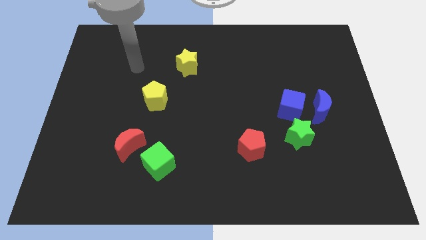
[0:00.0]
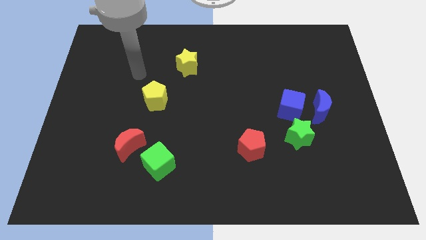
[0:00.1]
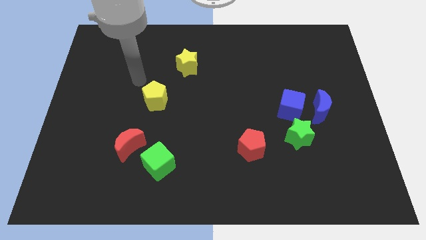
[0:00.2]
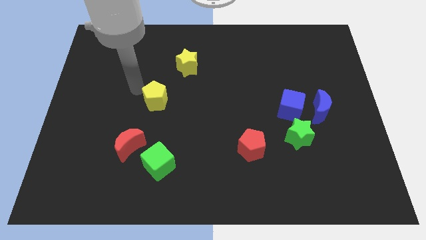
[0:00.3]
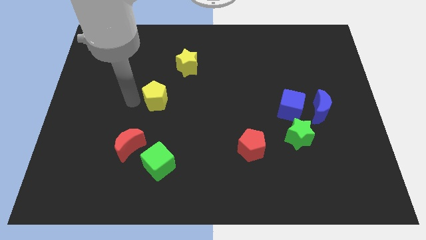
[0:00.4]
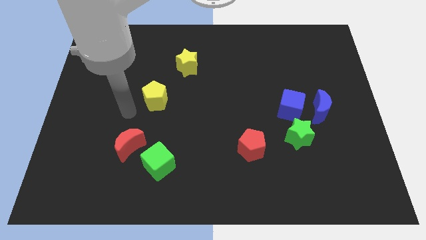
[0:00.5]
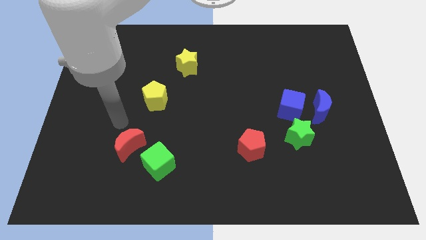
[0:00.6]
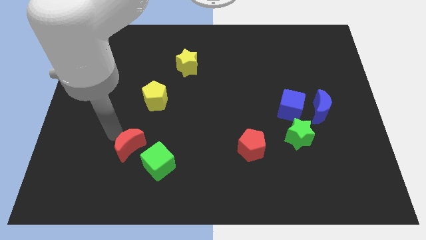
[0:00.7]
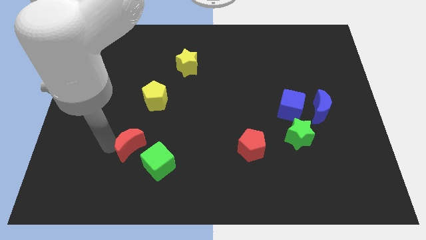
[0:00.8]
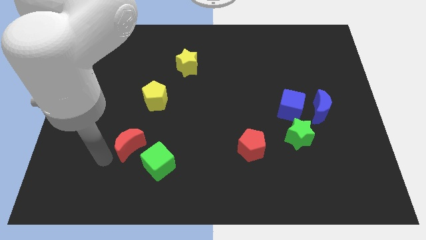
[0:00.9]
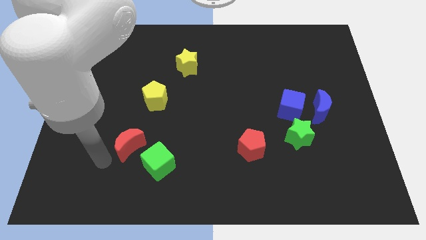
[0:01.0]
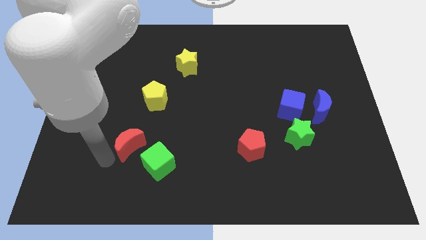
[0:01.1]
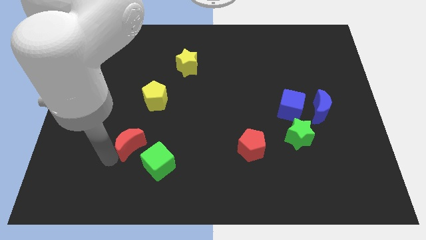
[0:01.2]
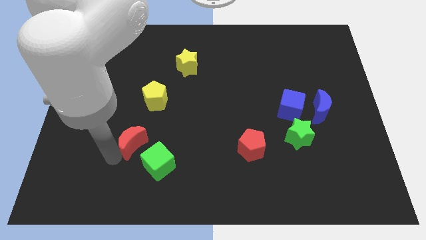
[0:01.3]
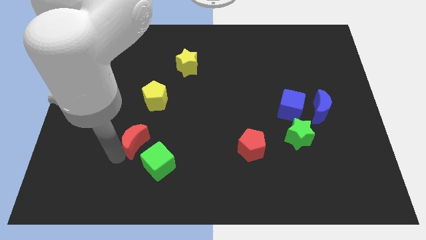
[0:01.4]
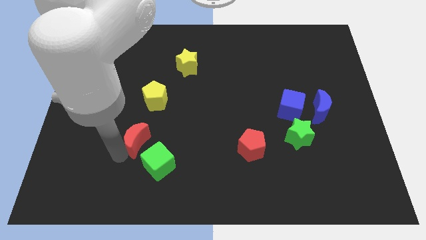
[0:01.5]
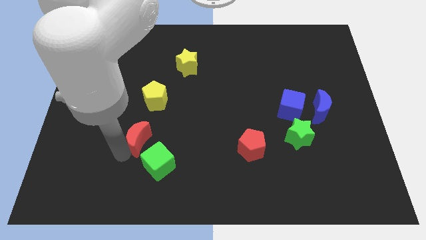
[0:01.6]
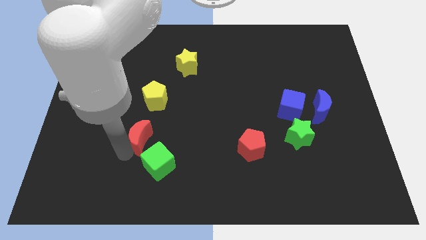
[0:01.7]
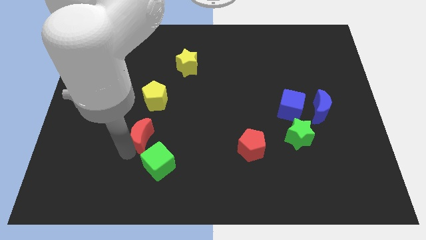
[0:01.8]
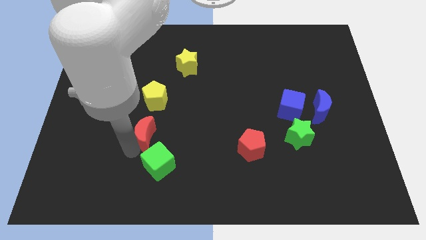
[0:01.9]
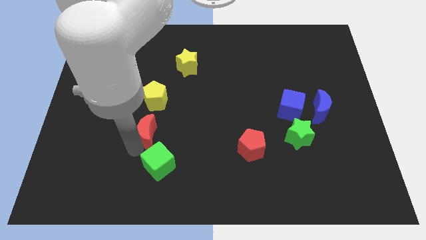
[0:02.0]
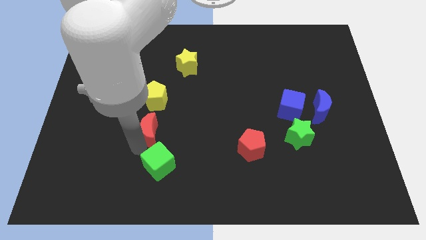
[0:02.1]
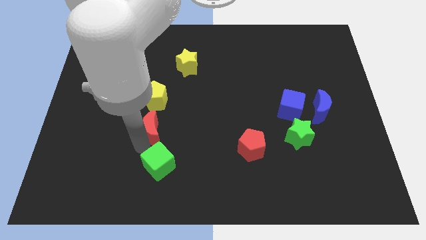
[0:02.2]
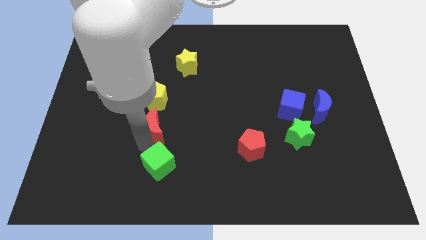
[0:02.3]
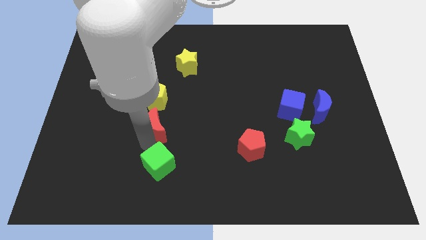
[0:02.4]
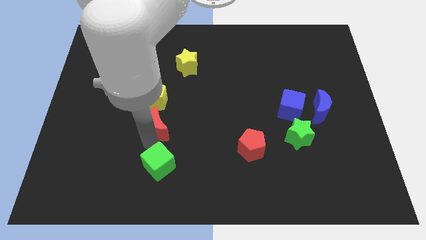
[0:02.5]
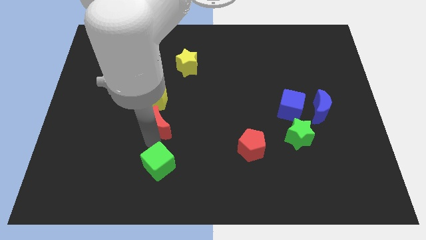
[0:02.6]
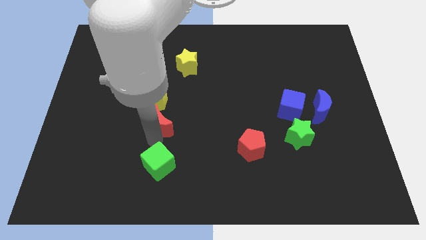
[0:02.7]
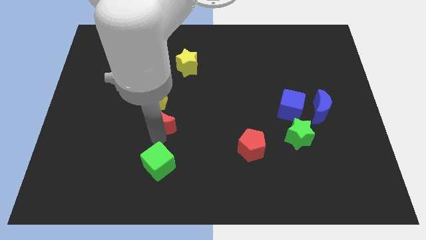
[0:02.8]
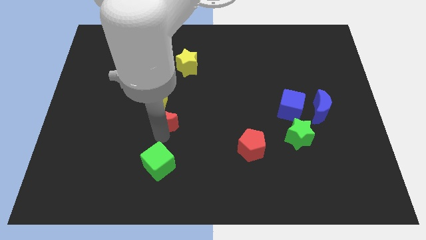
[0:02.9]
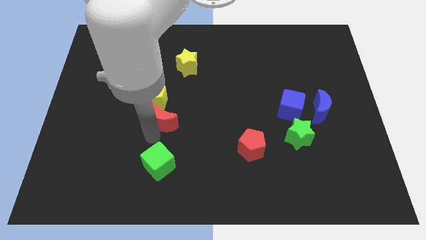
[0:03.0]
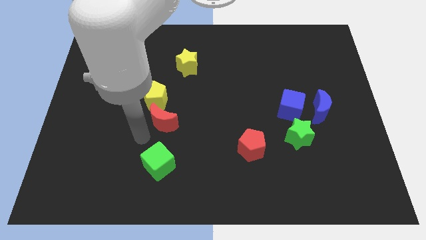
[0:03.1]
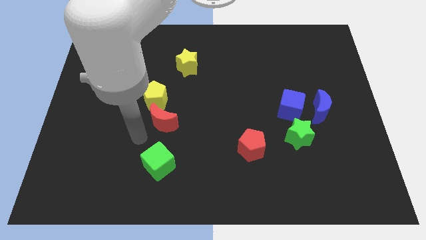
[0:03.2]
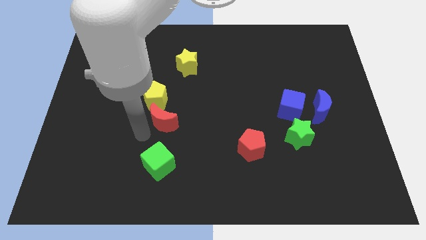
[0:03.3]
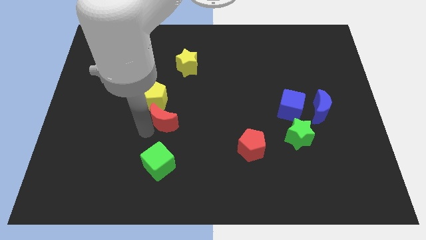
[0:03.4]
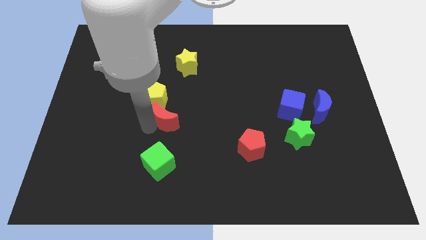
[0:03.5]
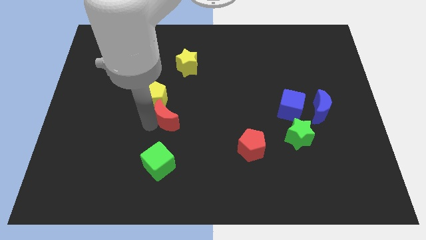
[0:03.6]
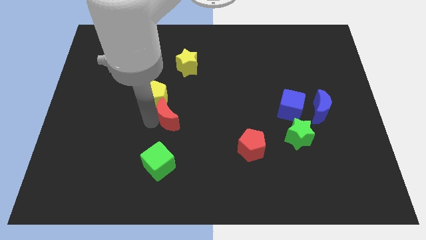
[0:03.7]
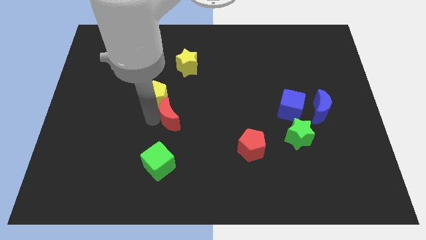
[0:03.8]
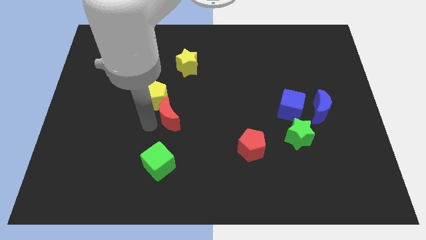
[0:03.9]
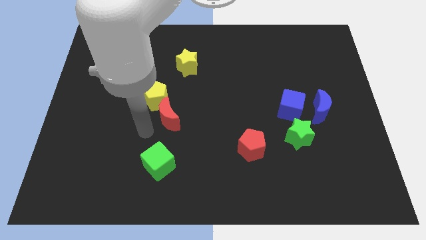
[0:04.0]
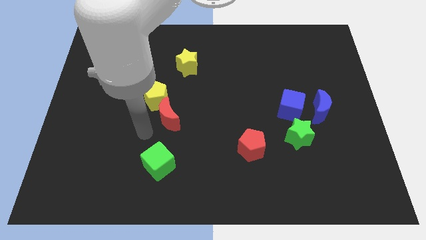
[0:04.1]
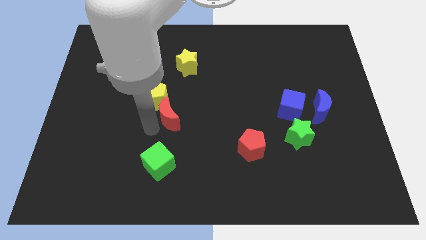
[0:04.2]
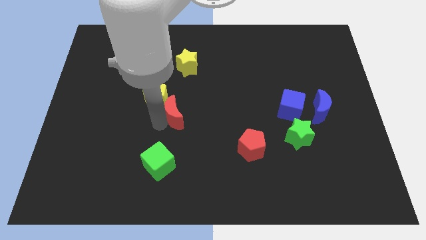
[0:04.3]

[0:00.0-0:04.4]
push the red moon to the right side of the yellow pentagon

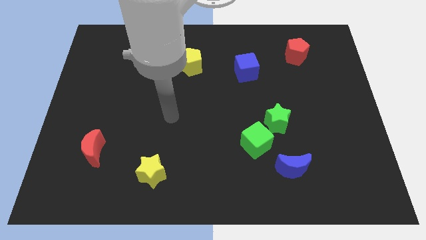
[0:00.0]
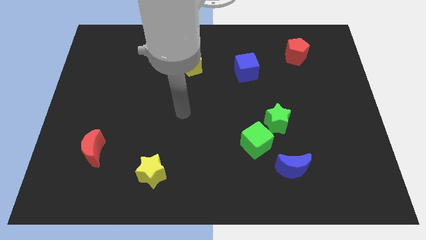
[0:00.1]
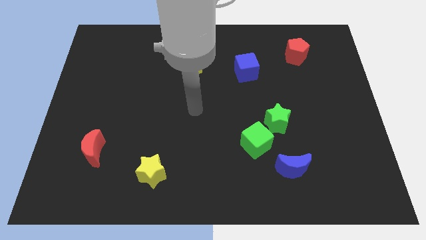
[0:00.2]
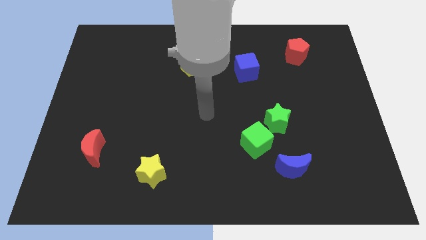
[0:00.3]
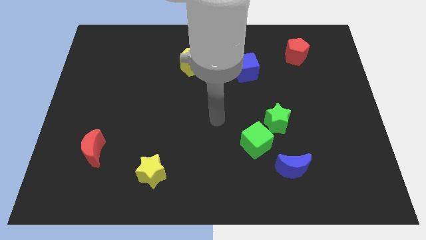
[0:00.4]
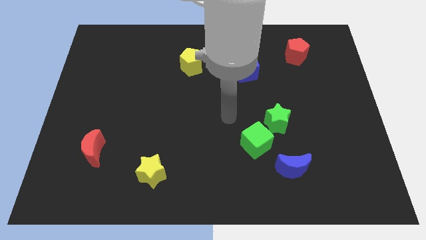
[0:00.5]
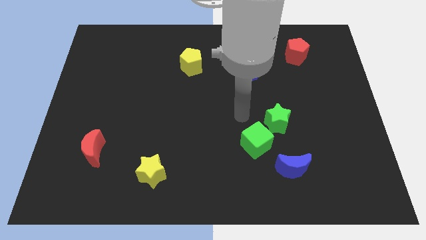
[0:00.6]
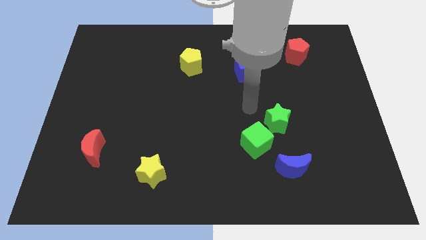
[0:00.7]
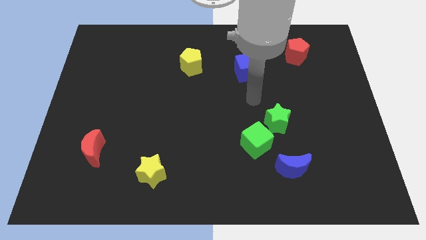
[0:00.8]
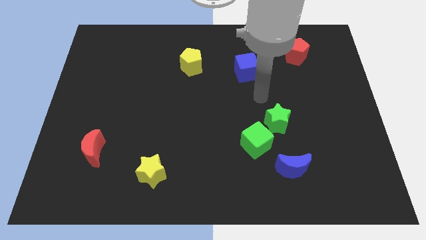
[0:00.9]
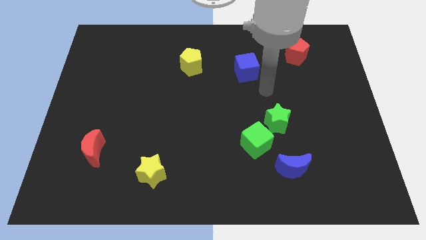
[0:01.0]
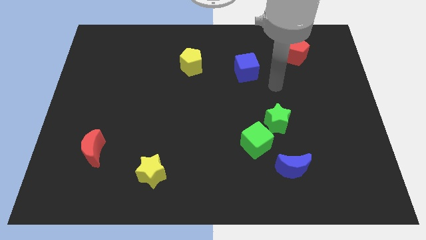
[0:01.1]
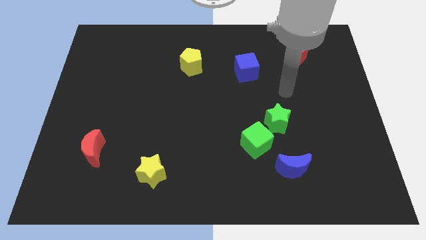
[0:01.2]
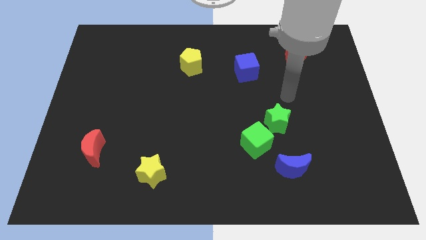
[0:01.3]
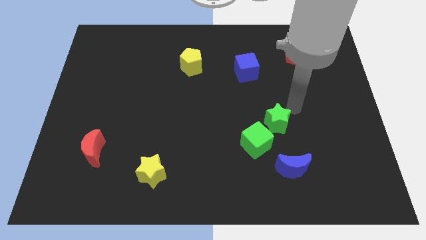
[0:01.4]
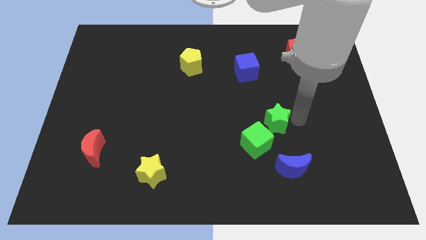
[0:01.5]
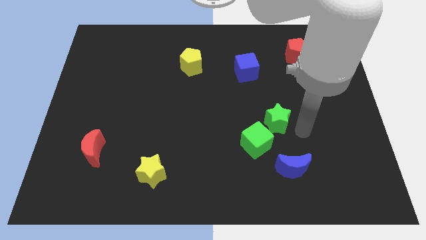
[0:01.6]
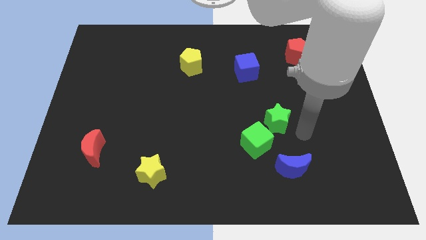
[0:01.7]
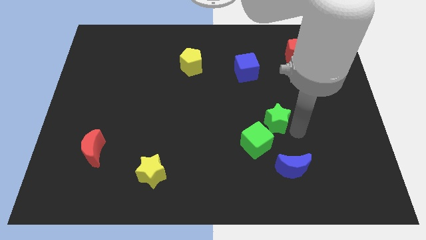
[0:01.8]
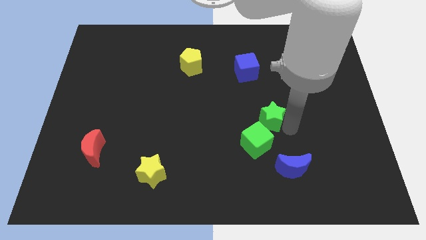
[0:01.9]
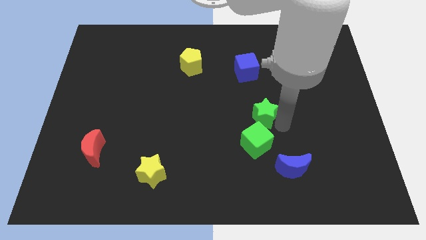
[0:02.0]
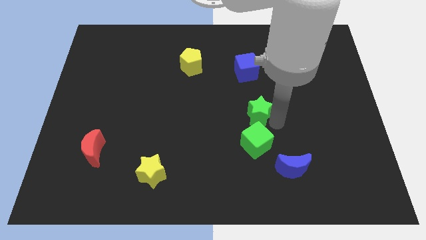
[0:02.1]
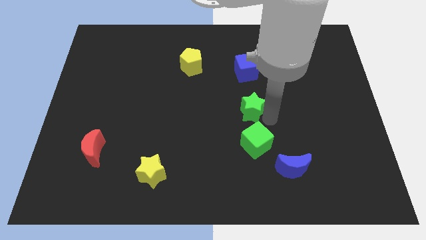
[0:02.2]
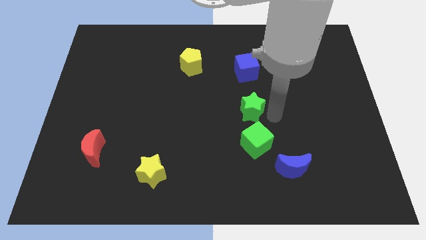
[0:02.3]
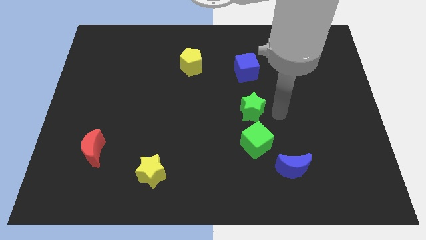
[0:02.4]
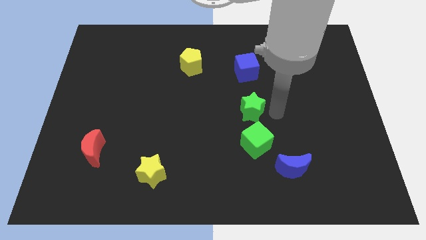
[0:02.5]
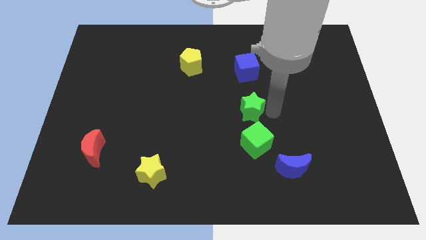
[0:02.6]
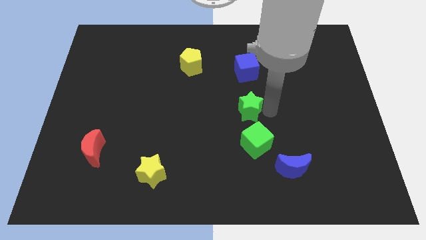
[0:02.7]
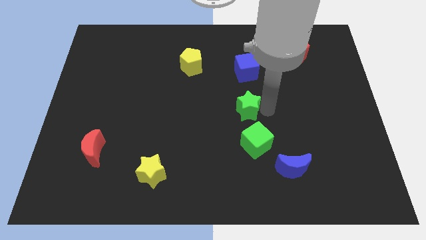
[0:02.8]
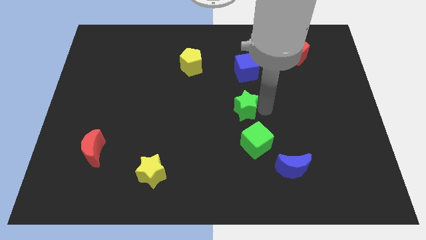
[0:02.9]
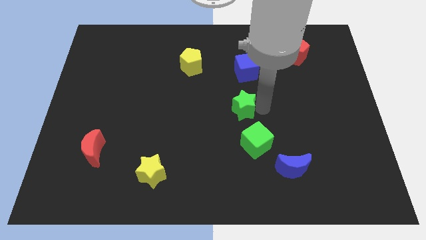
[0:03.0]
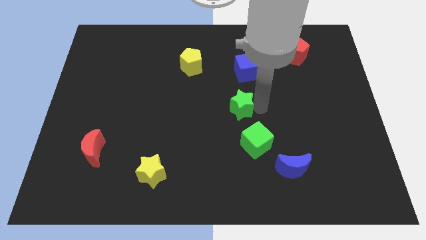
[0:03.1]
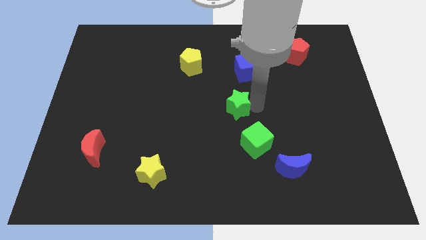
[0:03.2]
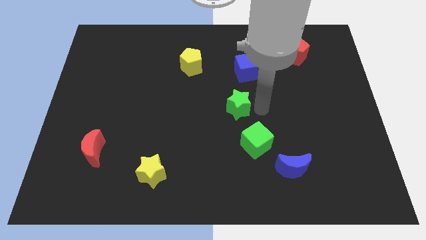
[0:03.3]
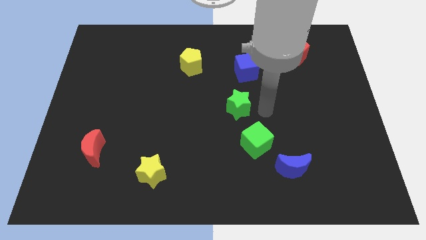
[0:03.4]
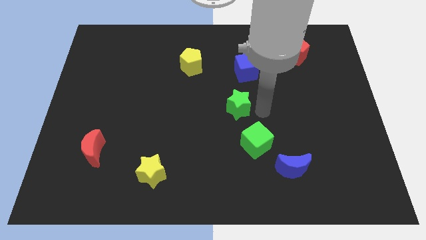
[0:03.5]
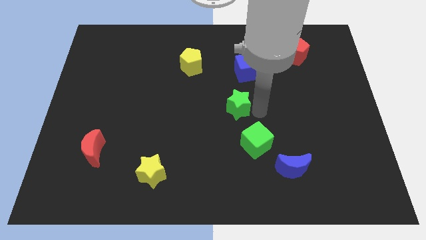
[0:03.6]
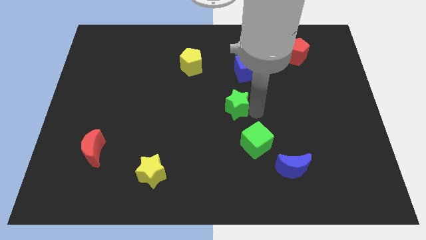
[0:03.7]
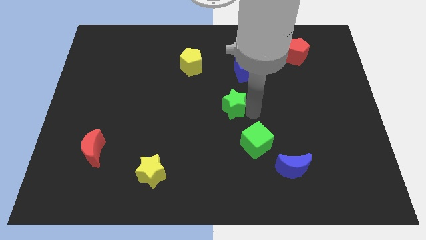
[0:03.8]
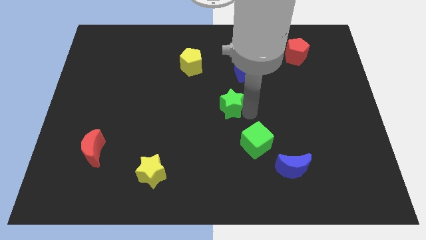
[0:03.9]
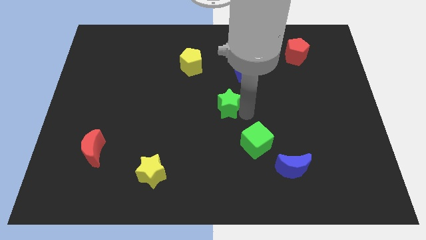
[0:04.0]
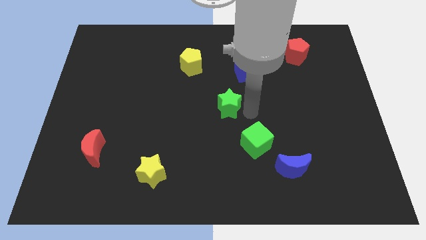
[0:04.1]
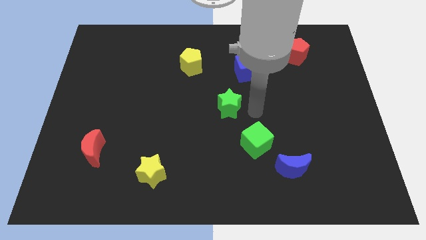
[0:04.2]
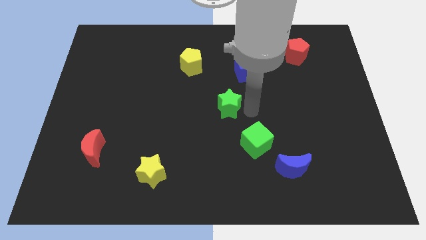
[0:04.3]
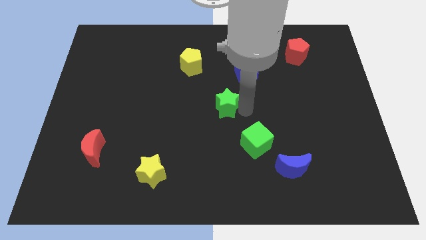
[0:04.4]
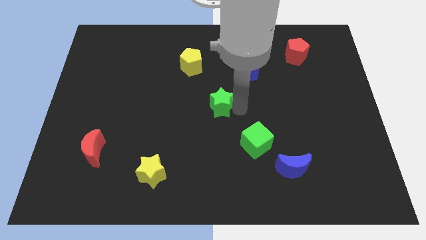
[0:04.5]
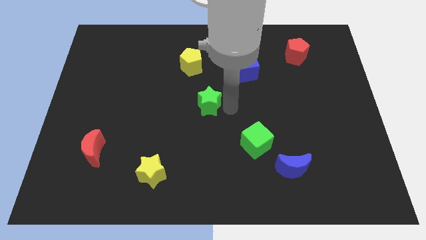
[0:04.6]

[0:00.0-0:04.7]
push the green star below the yellow pentagon
